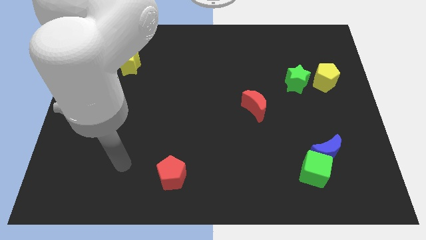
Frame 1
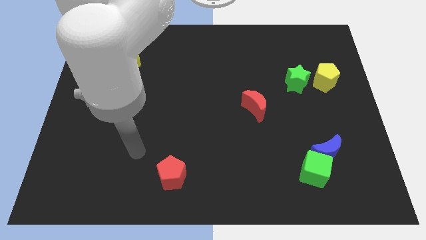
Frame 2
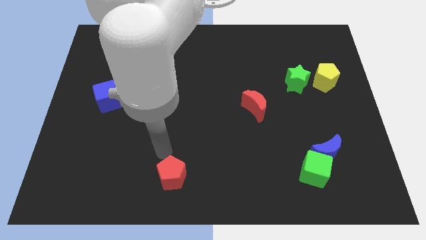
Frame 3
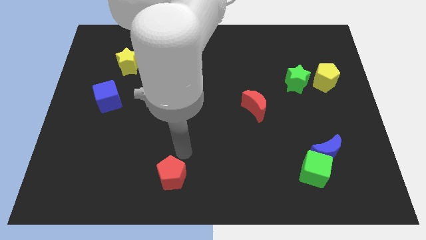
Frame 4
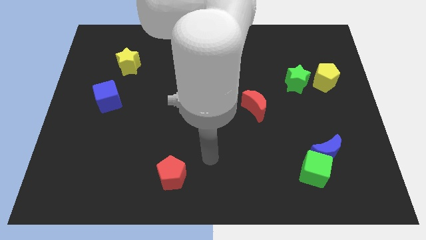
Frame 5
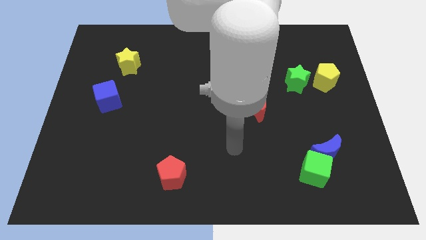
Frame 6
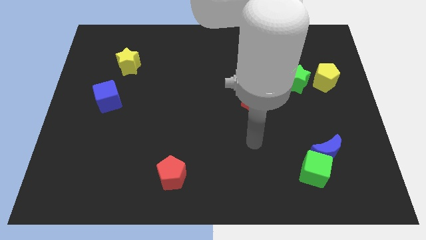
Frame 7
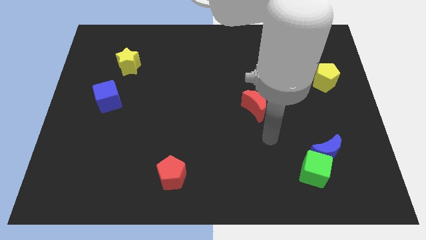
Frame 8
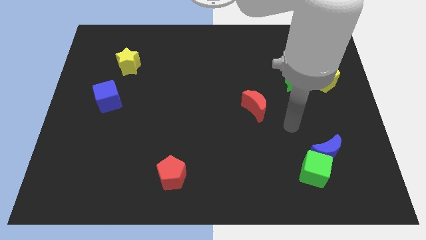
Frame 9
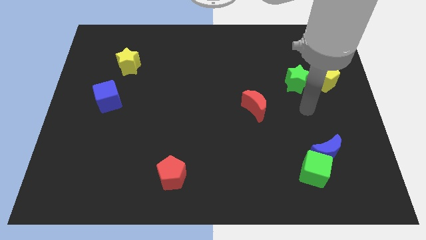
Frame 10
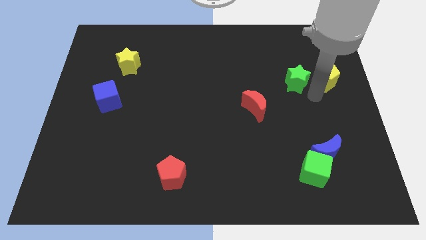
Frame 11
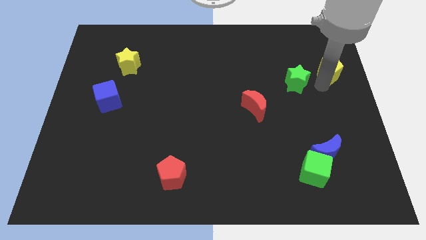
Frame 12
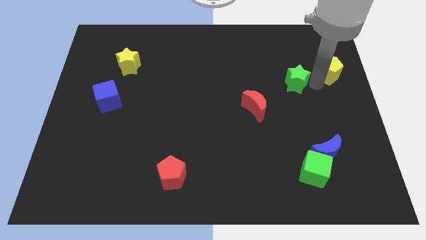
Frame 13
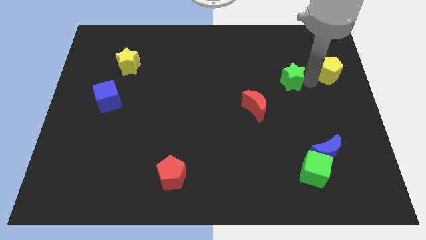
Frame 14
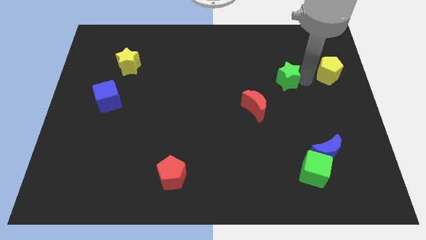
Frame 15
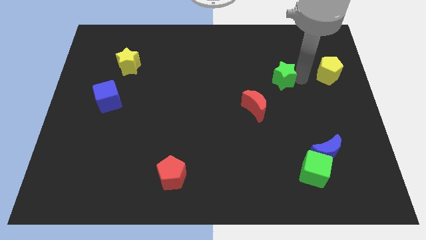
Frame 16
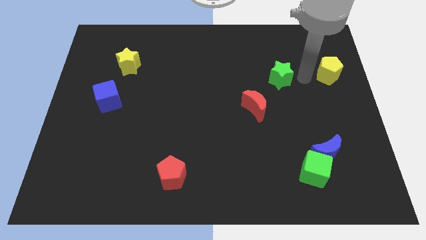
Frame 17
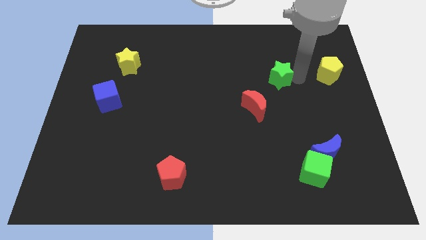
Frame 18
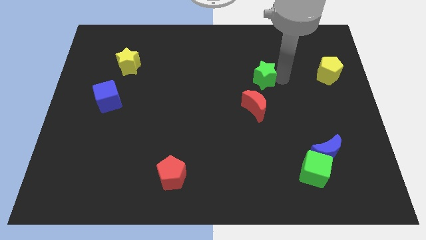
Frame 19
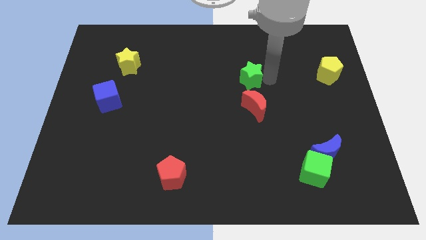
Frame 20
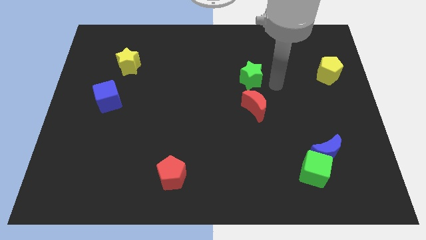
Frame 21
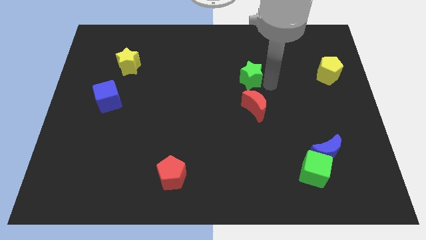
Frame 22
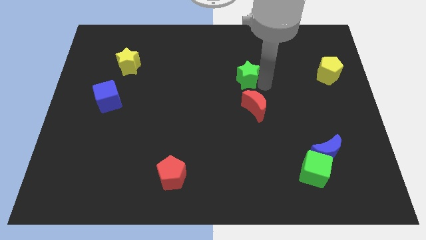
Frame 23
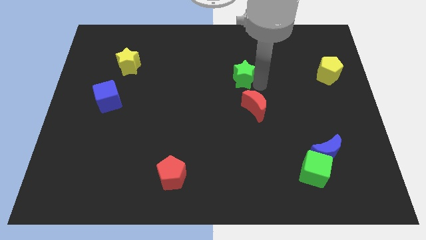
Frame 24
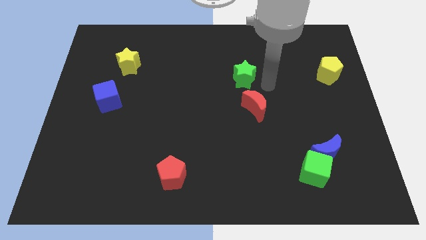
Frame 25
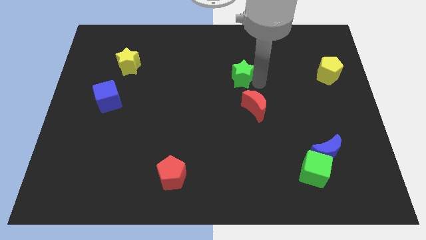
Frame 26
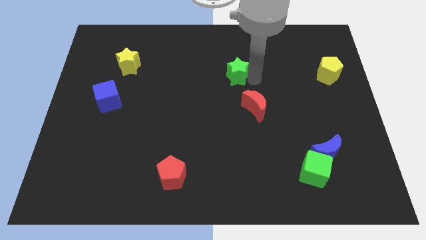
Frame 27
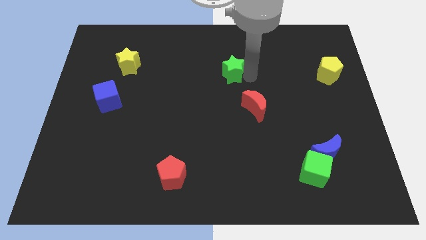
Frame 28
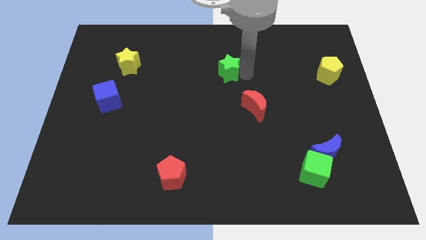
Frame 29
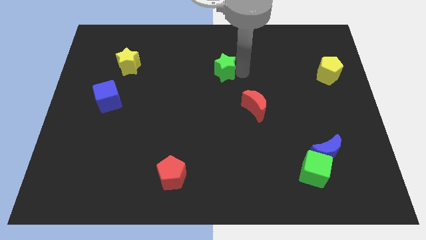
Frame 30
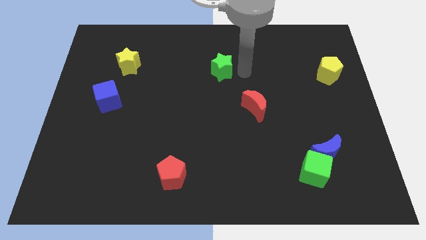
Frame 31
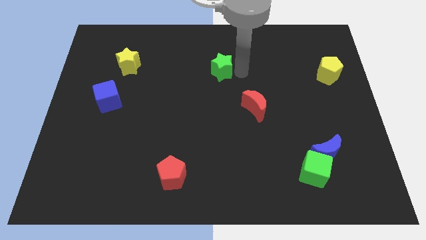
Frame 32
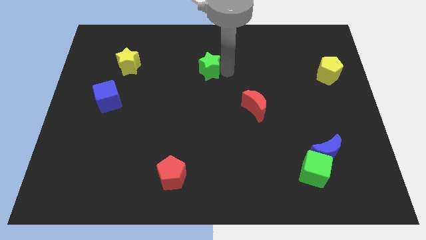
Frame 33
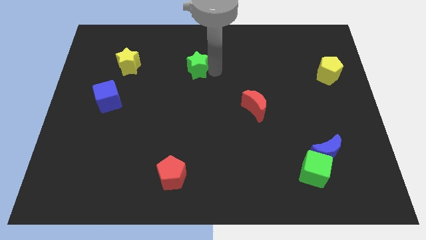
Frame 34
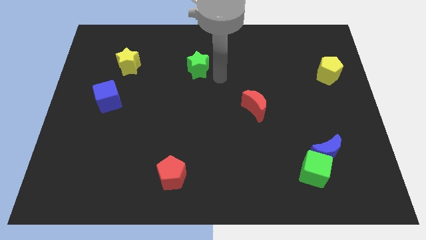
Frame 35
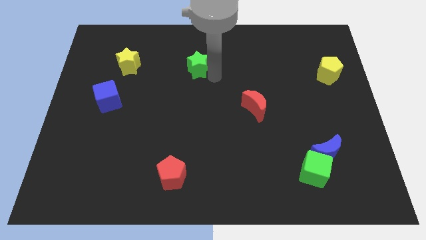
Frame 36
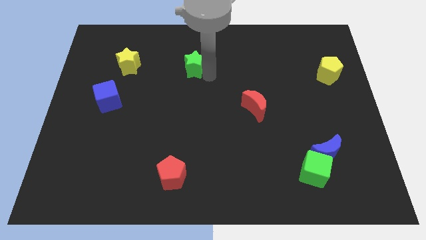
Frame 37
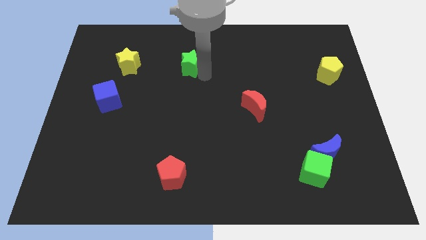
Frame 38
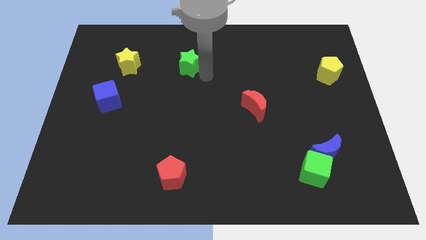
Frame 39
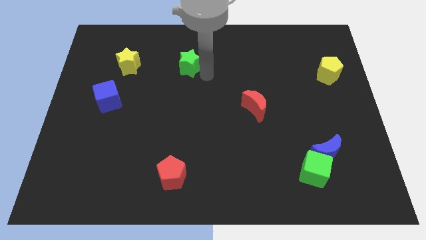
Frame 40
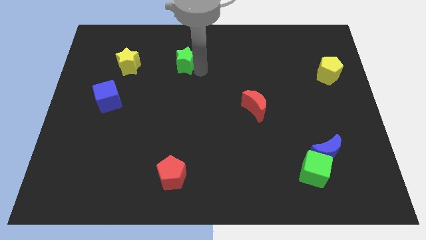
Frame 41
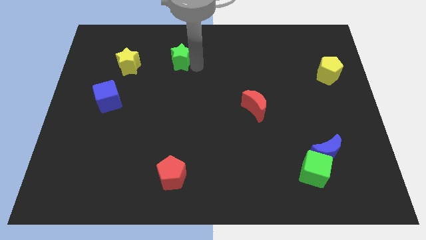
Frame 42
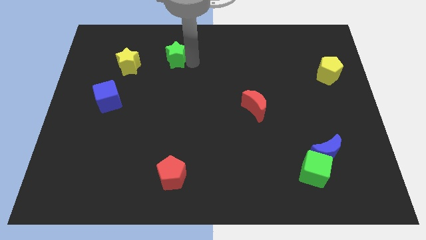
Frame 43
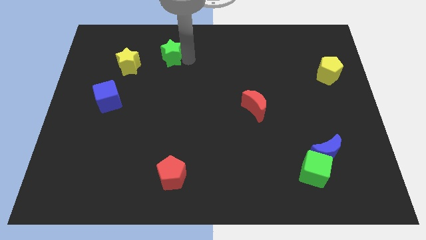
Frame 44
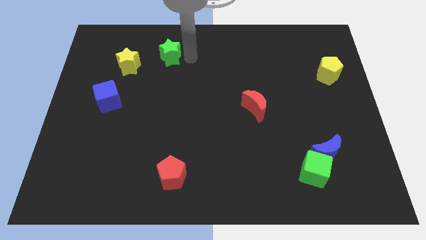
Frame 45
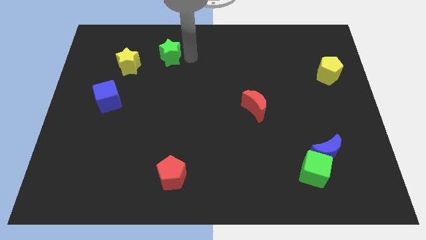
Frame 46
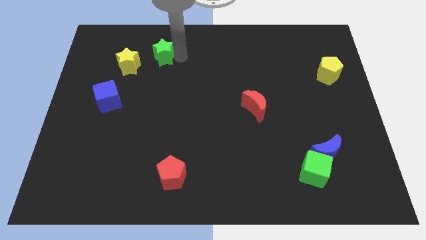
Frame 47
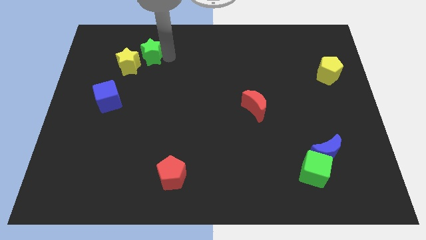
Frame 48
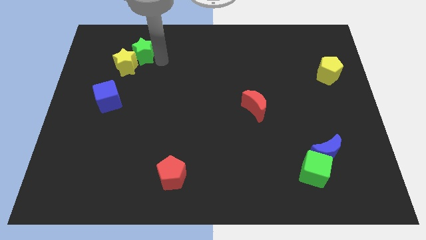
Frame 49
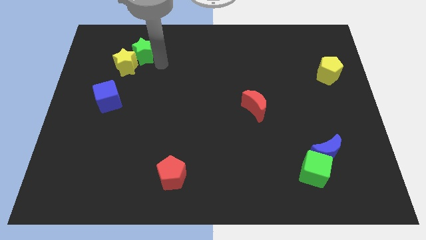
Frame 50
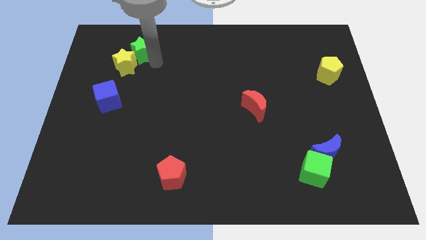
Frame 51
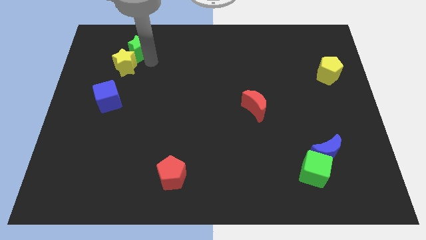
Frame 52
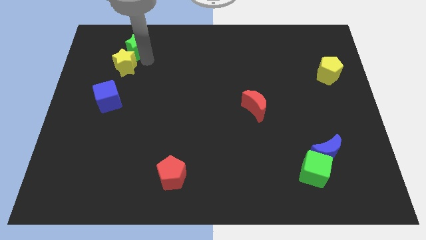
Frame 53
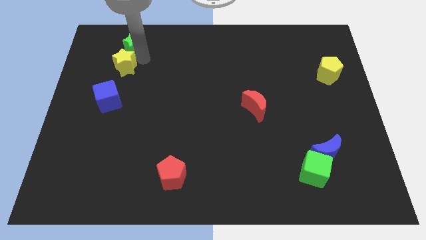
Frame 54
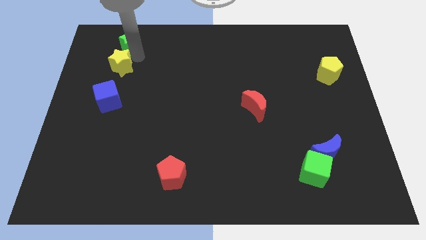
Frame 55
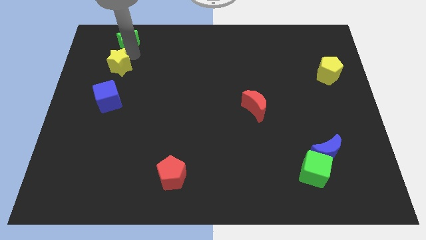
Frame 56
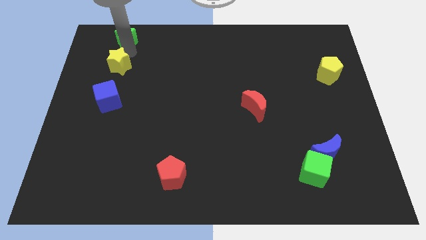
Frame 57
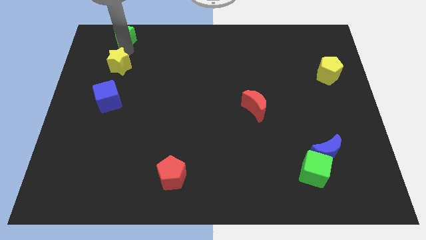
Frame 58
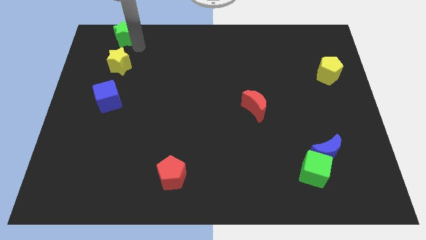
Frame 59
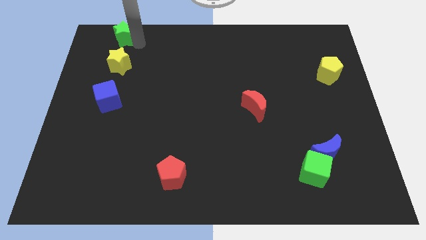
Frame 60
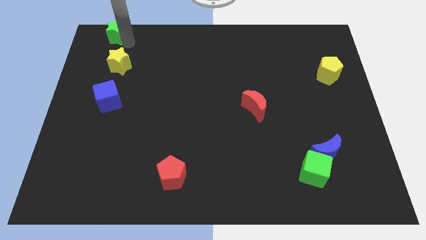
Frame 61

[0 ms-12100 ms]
slide the green star to the top left of the board
